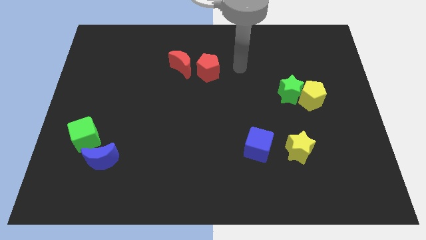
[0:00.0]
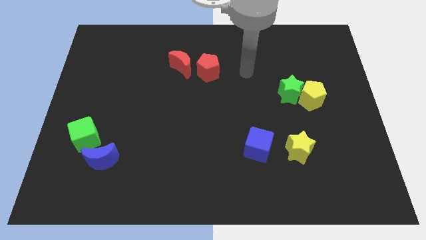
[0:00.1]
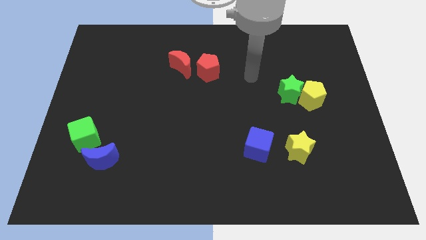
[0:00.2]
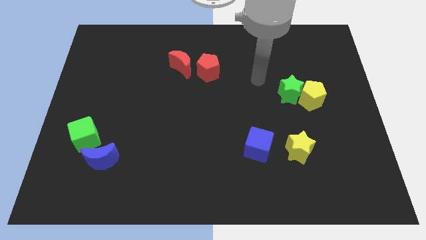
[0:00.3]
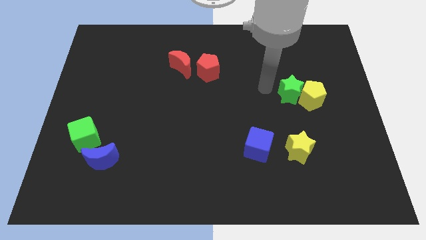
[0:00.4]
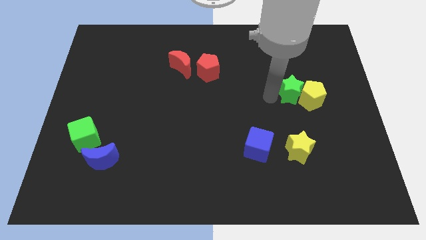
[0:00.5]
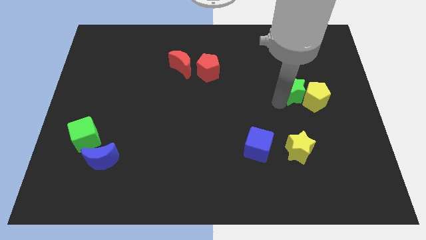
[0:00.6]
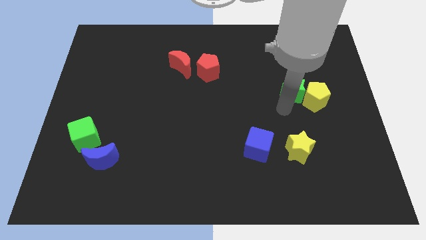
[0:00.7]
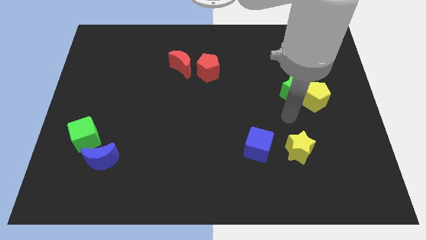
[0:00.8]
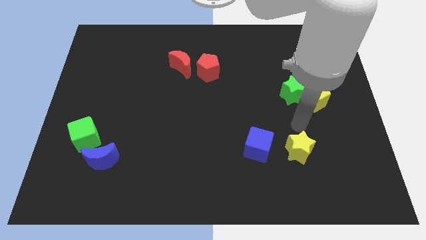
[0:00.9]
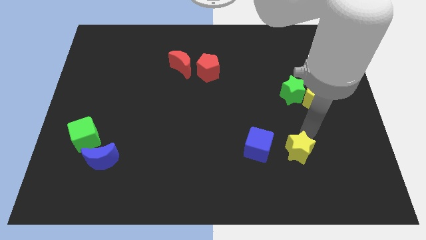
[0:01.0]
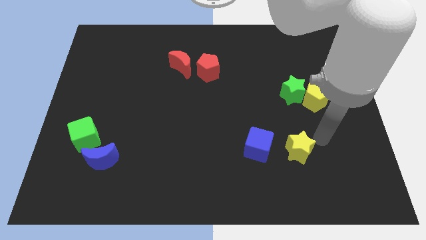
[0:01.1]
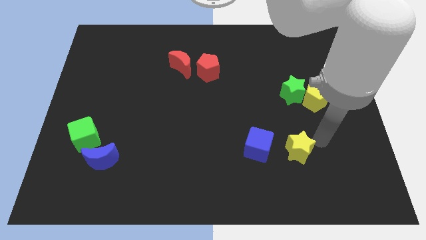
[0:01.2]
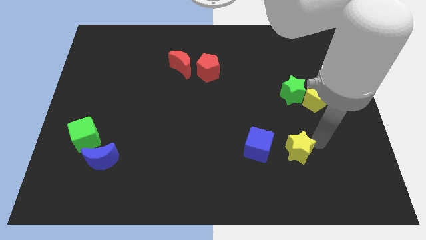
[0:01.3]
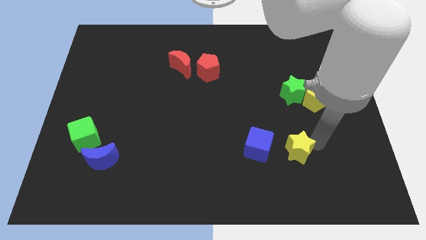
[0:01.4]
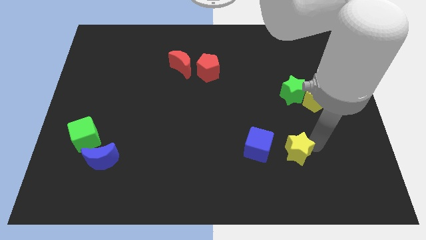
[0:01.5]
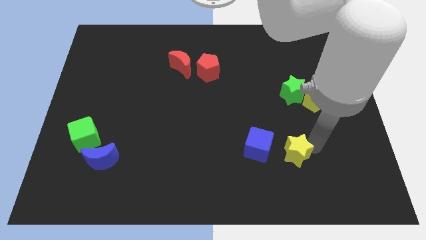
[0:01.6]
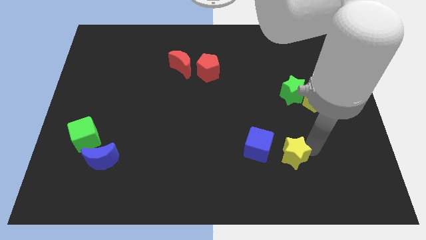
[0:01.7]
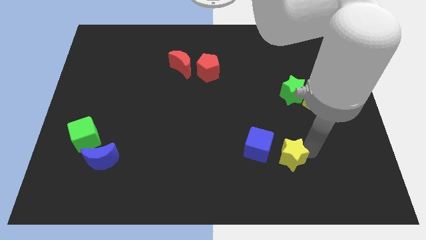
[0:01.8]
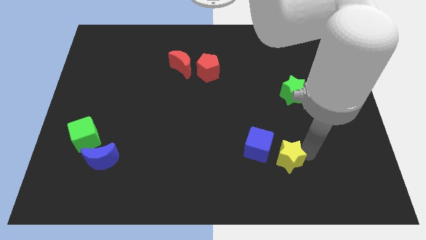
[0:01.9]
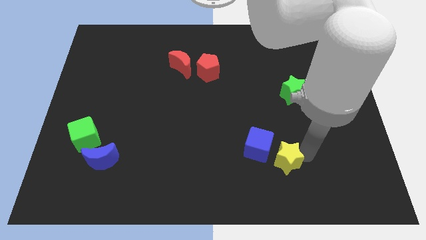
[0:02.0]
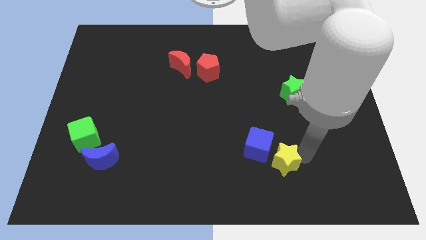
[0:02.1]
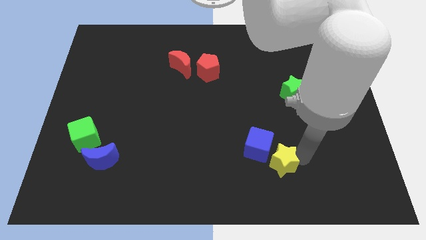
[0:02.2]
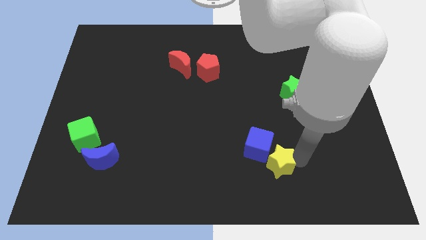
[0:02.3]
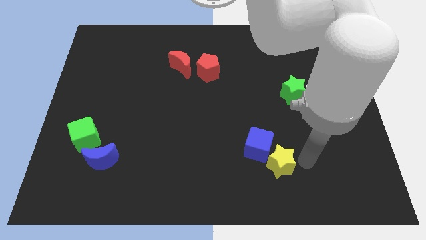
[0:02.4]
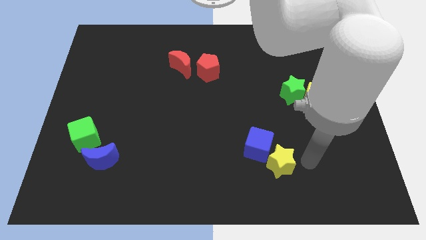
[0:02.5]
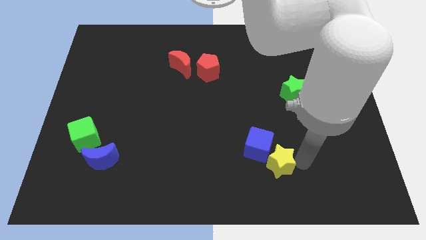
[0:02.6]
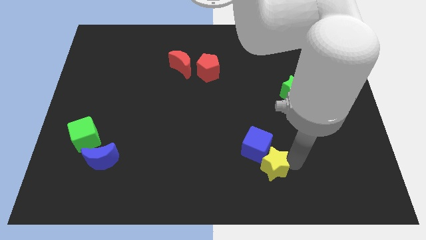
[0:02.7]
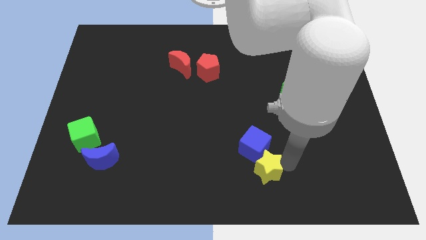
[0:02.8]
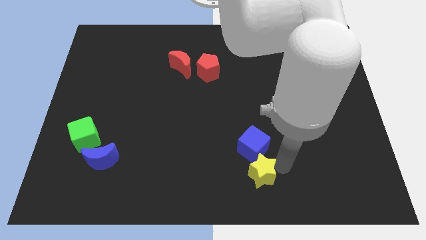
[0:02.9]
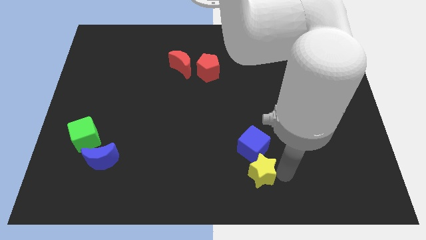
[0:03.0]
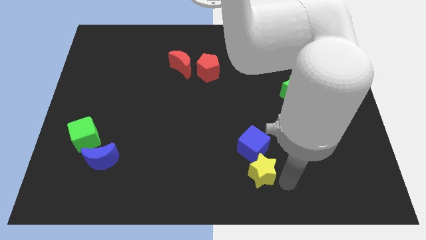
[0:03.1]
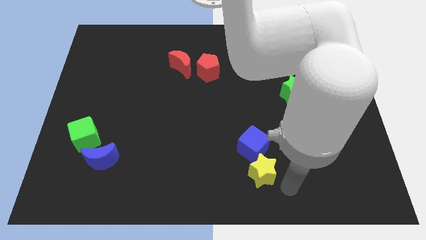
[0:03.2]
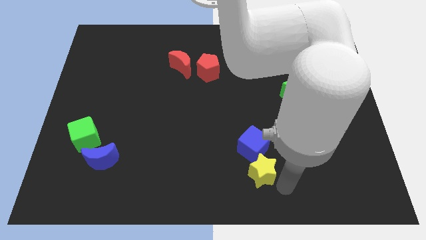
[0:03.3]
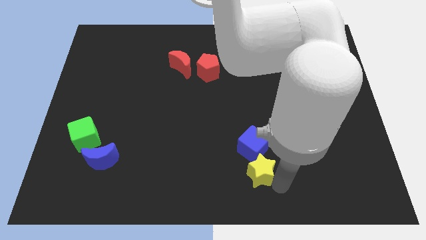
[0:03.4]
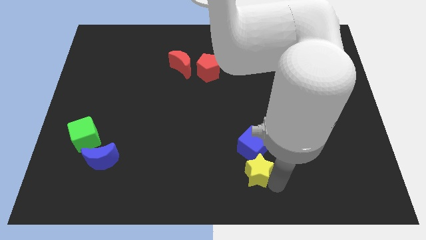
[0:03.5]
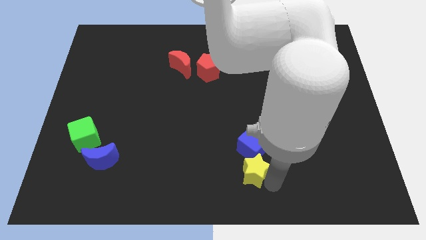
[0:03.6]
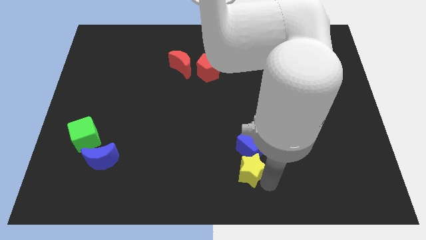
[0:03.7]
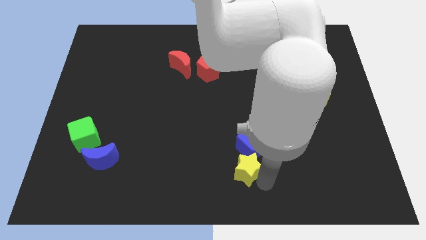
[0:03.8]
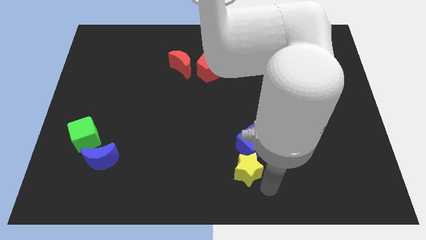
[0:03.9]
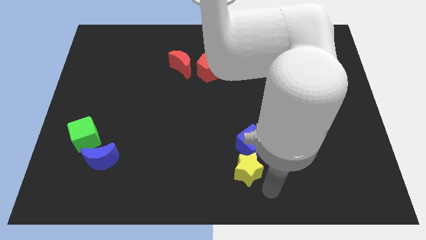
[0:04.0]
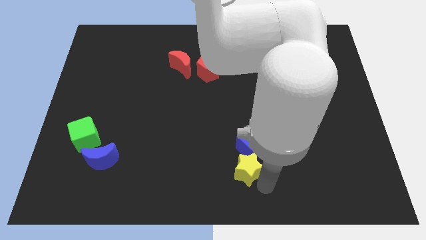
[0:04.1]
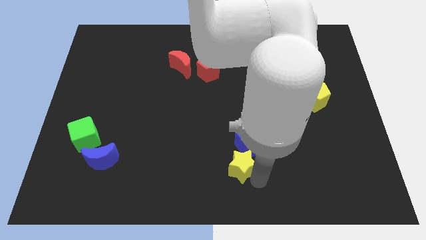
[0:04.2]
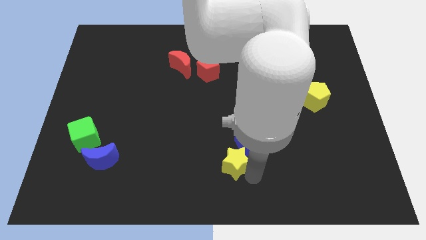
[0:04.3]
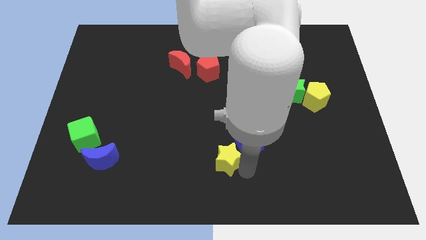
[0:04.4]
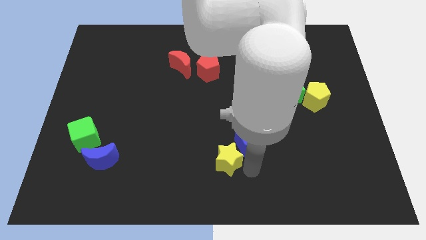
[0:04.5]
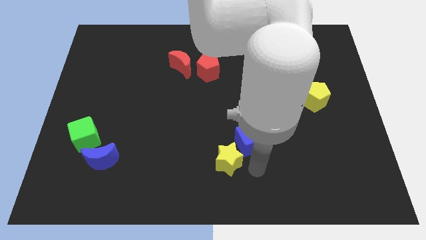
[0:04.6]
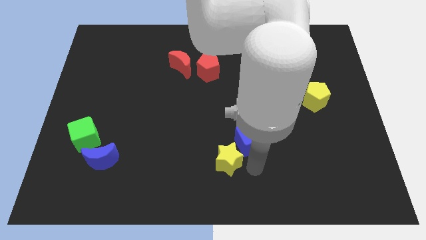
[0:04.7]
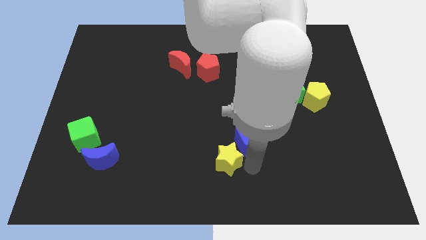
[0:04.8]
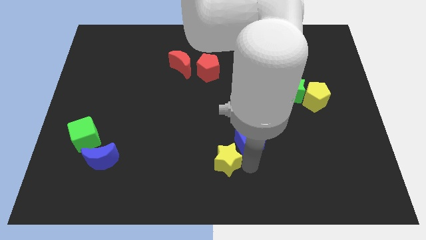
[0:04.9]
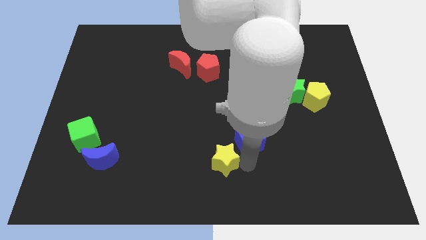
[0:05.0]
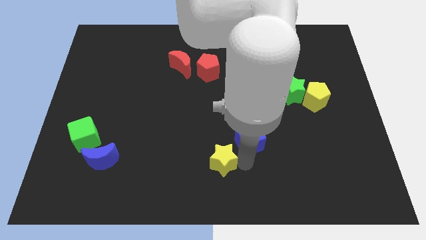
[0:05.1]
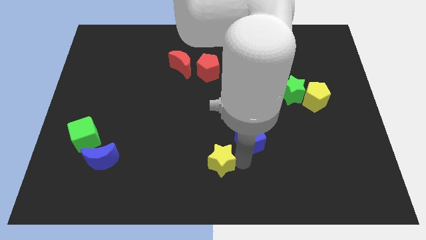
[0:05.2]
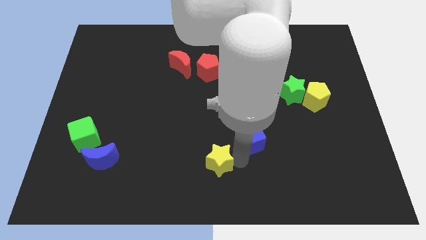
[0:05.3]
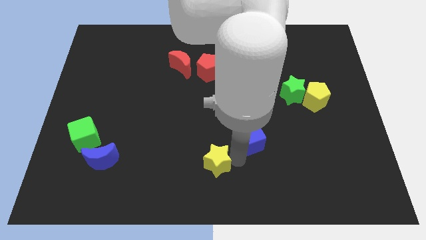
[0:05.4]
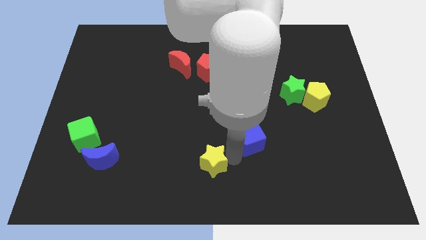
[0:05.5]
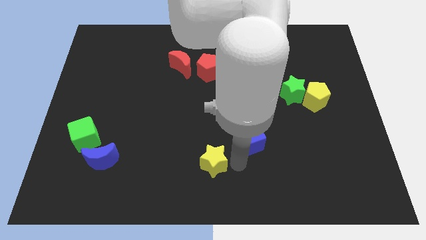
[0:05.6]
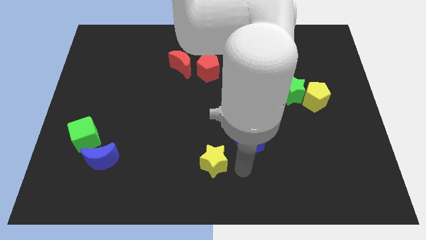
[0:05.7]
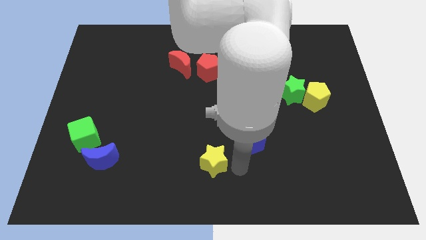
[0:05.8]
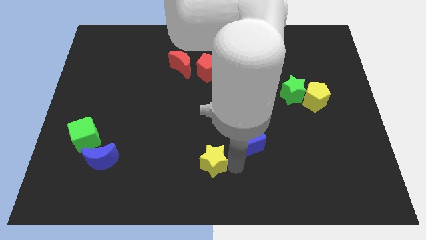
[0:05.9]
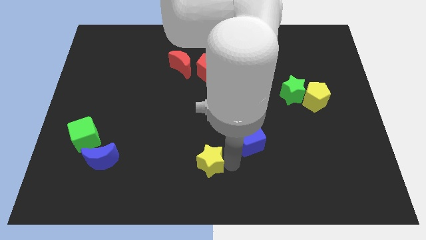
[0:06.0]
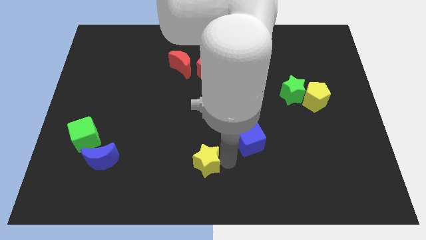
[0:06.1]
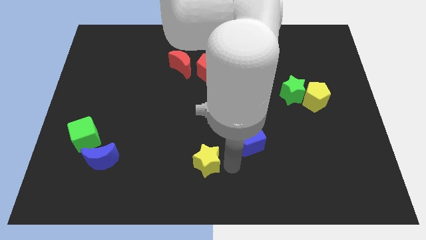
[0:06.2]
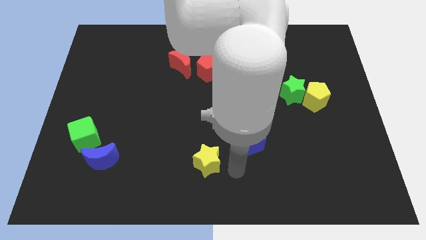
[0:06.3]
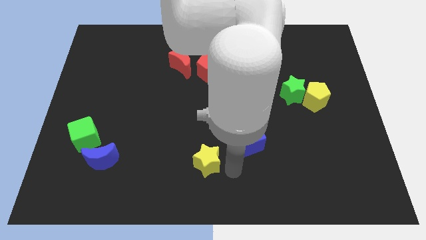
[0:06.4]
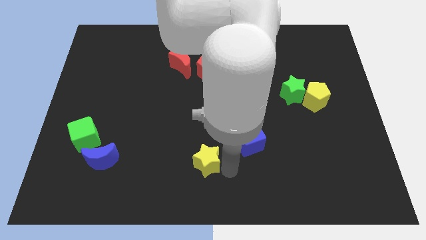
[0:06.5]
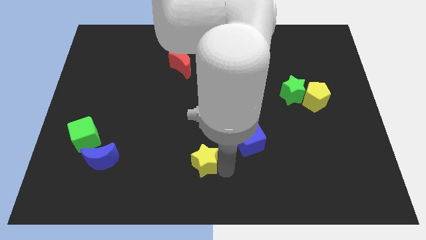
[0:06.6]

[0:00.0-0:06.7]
slide the yellow star to the left

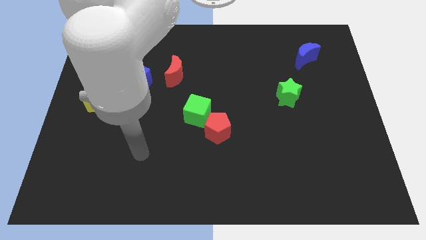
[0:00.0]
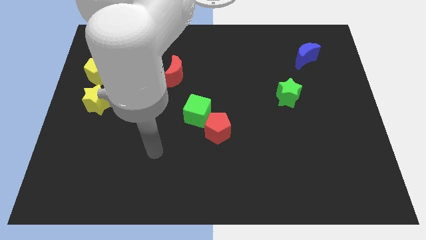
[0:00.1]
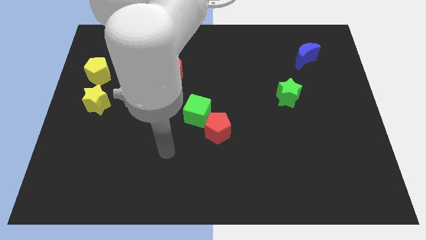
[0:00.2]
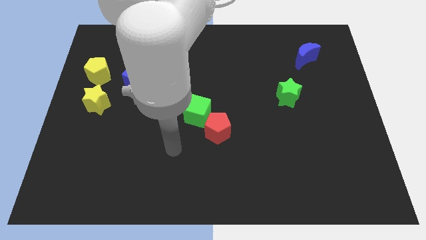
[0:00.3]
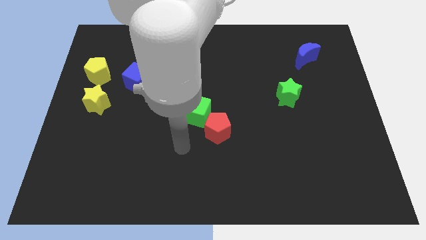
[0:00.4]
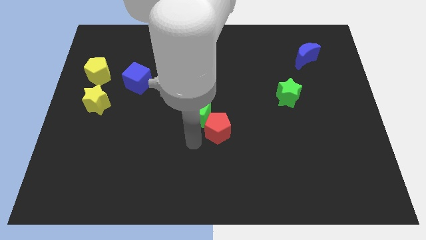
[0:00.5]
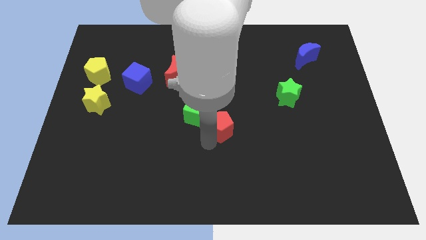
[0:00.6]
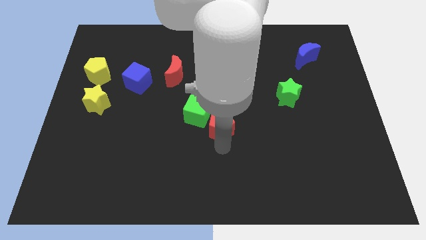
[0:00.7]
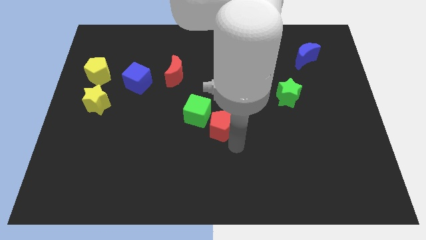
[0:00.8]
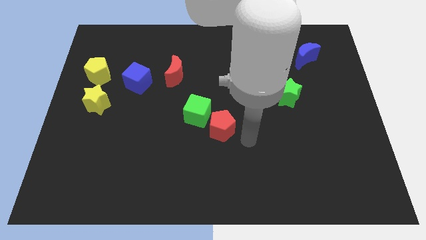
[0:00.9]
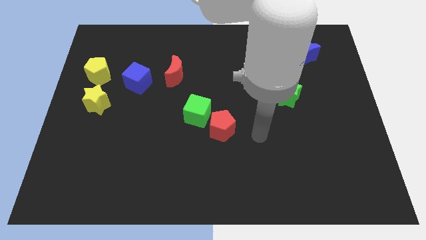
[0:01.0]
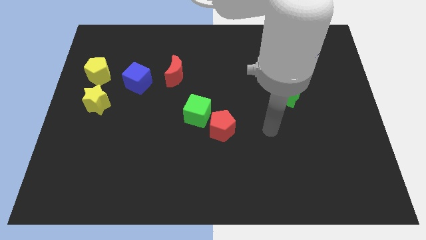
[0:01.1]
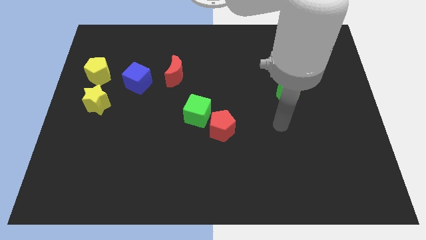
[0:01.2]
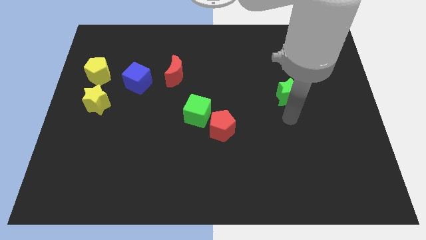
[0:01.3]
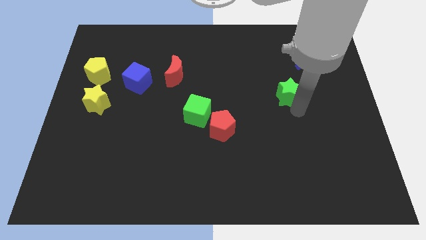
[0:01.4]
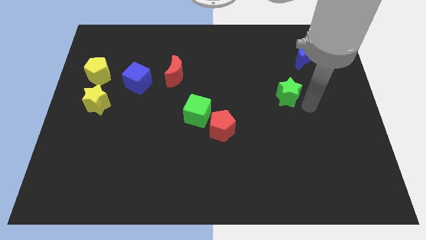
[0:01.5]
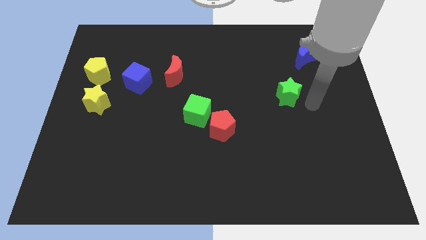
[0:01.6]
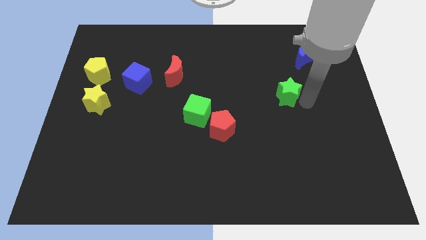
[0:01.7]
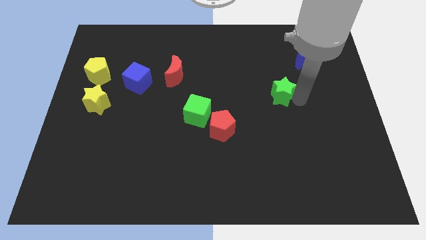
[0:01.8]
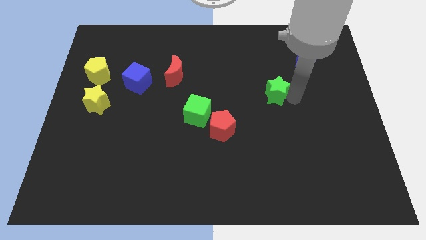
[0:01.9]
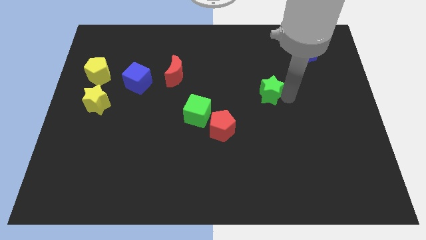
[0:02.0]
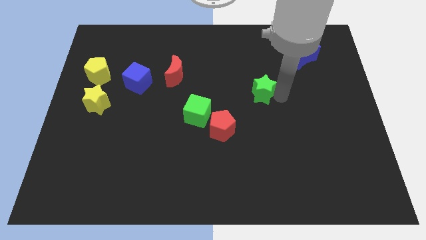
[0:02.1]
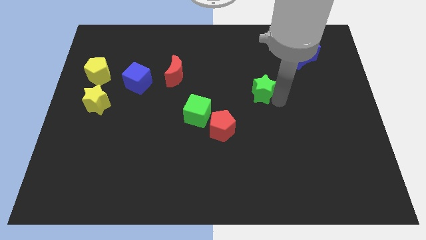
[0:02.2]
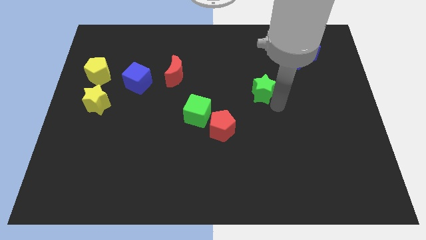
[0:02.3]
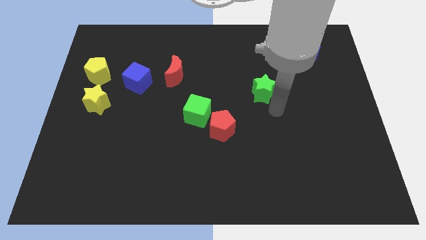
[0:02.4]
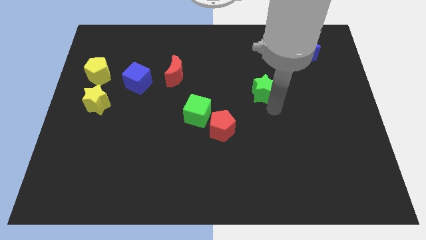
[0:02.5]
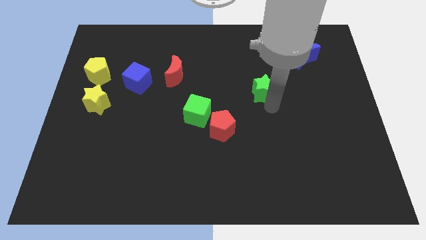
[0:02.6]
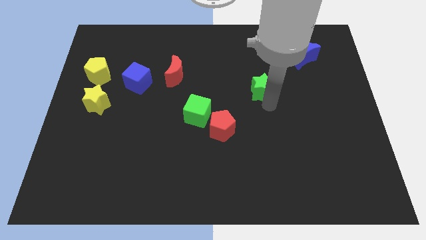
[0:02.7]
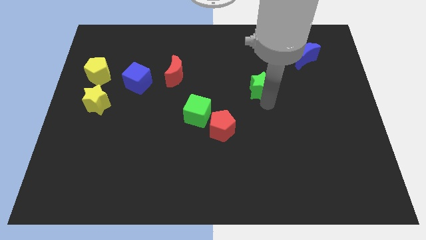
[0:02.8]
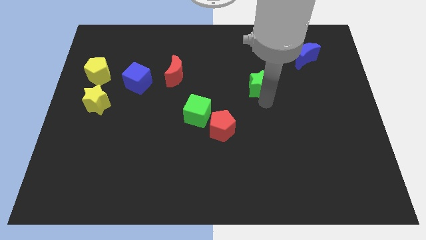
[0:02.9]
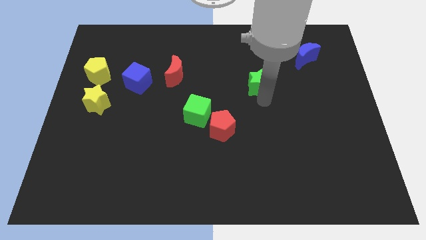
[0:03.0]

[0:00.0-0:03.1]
slide the green star a little upwards and left
